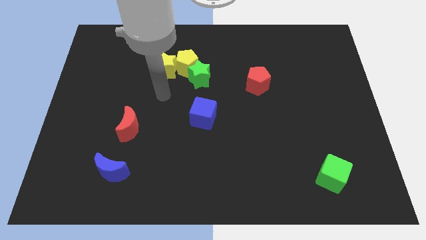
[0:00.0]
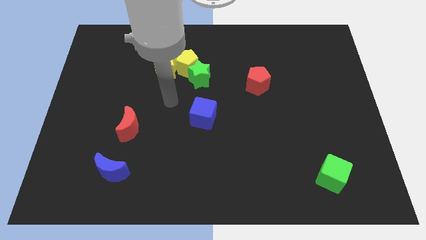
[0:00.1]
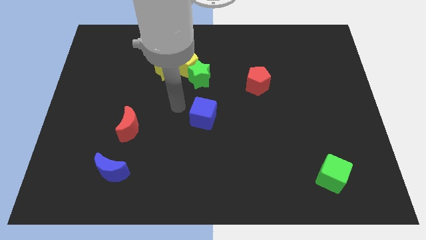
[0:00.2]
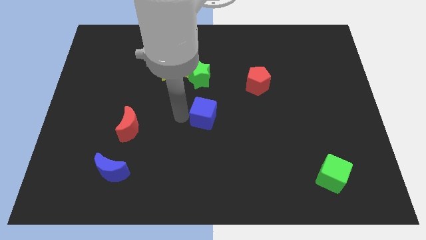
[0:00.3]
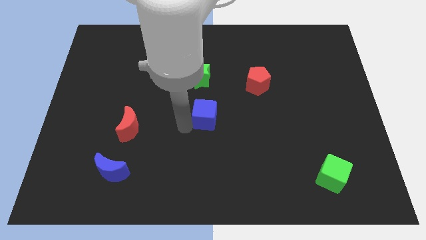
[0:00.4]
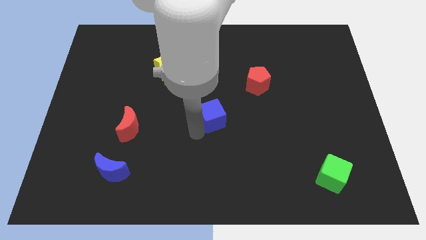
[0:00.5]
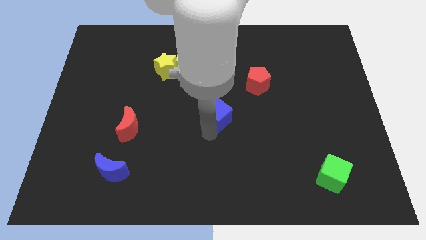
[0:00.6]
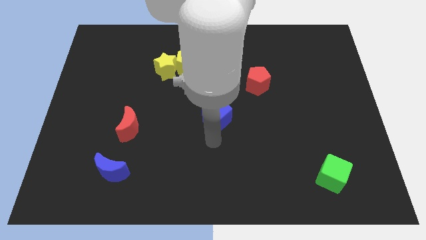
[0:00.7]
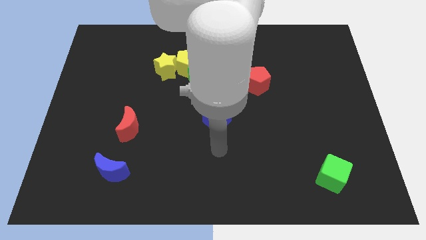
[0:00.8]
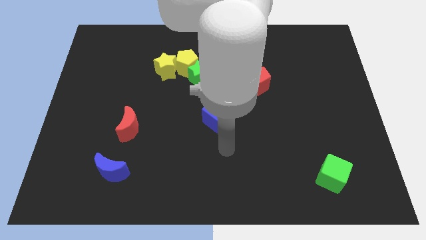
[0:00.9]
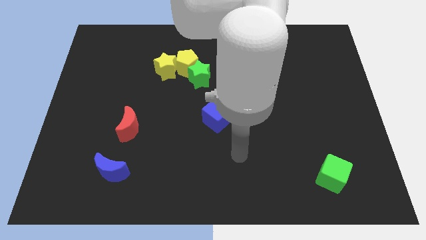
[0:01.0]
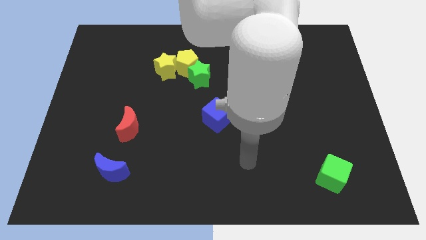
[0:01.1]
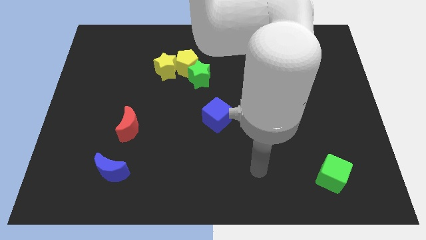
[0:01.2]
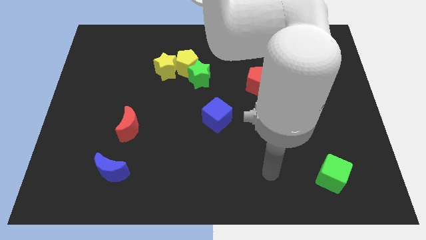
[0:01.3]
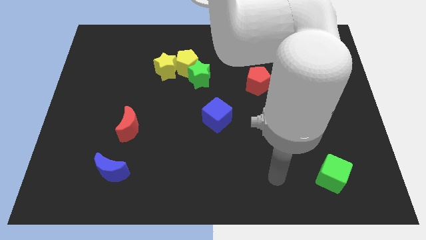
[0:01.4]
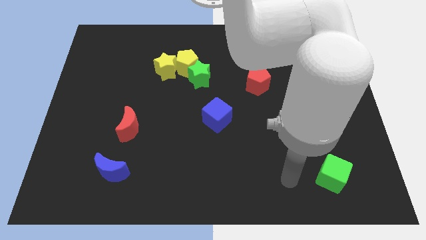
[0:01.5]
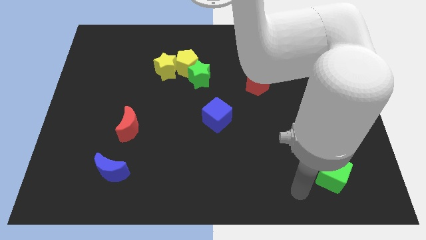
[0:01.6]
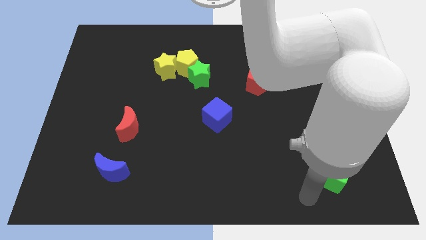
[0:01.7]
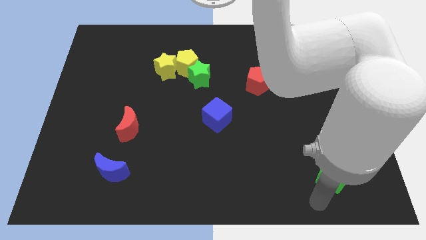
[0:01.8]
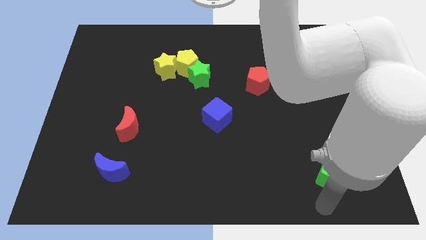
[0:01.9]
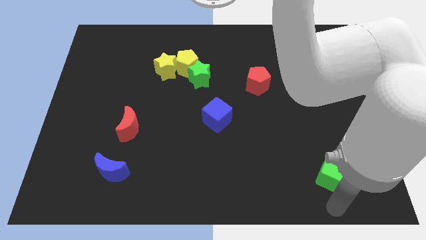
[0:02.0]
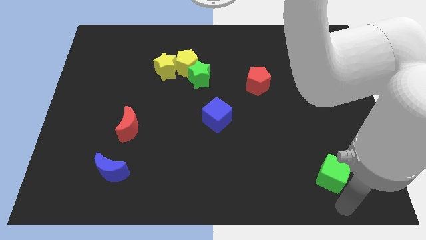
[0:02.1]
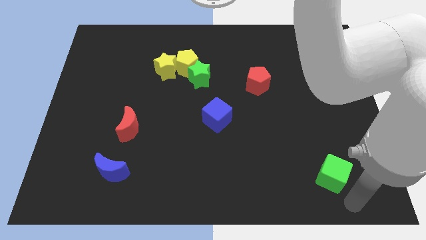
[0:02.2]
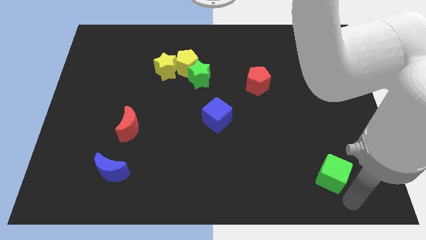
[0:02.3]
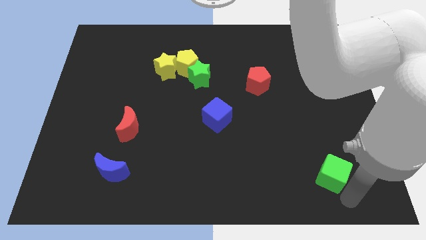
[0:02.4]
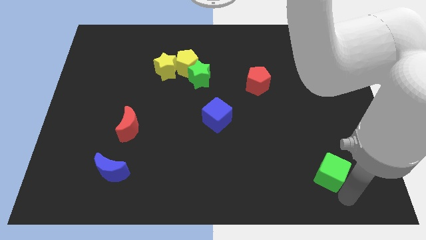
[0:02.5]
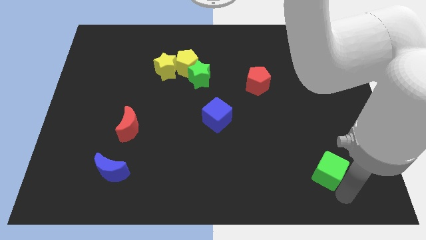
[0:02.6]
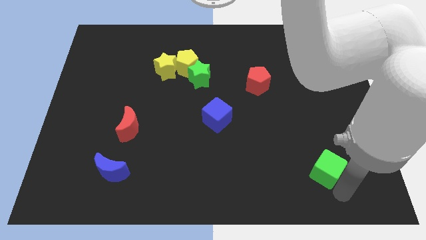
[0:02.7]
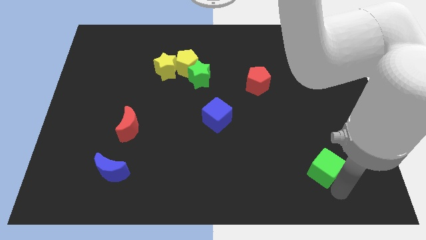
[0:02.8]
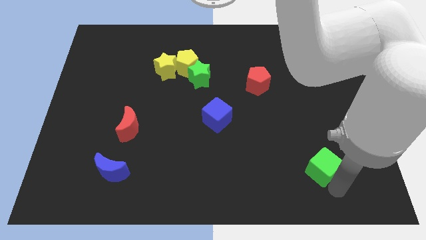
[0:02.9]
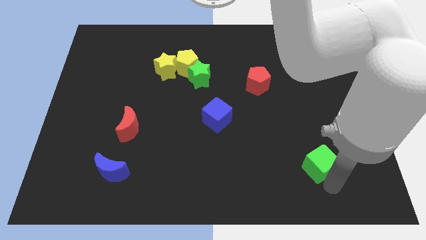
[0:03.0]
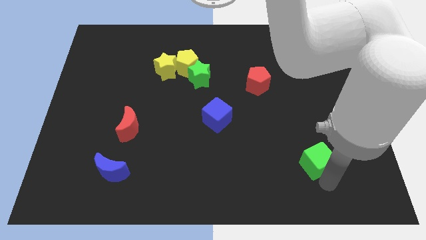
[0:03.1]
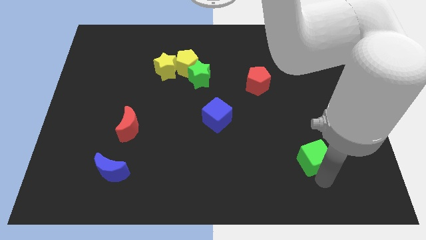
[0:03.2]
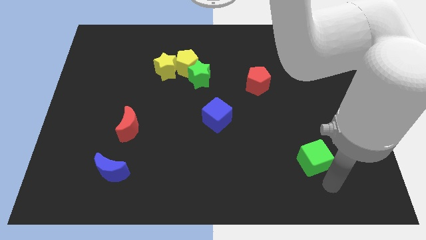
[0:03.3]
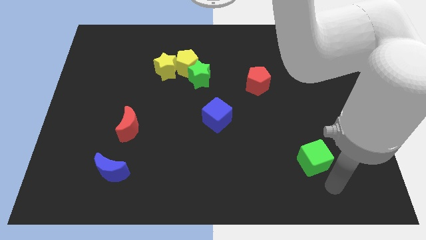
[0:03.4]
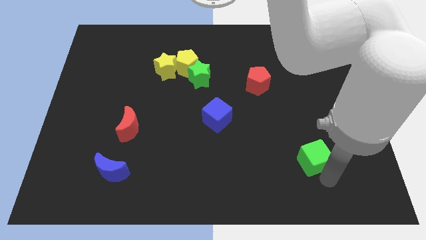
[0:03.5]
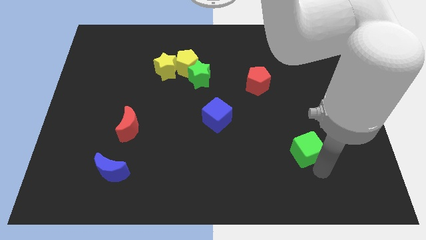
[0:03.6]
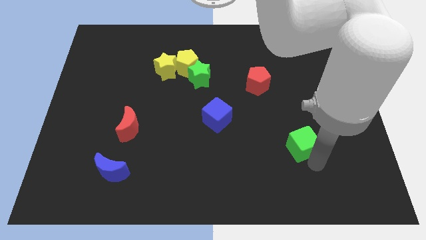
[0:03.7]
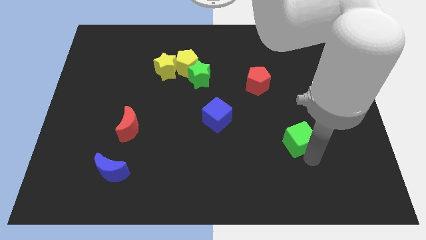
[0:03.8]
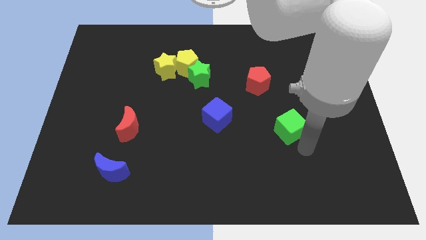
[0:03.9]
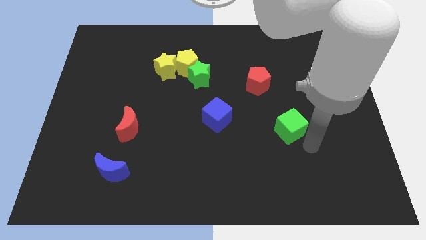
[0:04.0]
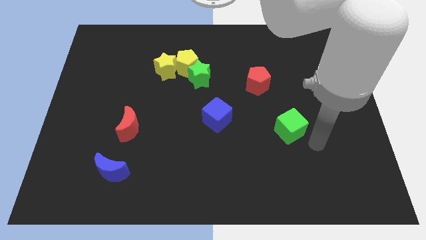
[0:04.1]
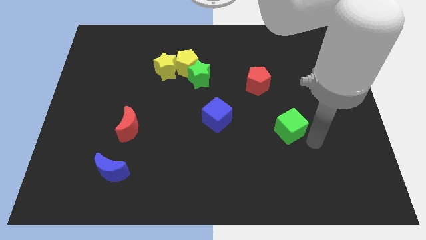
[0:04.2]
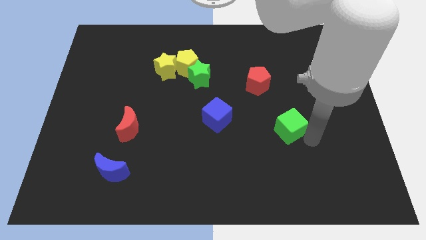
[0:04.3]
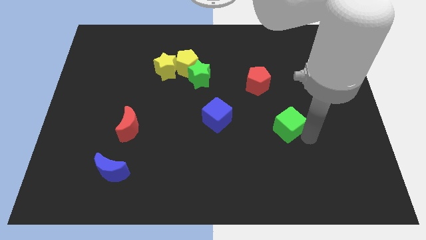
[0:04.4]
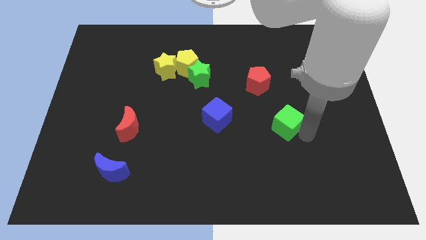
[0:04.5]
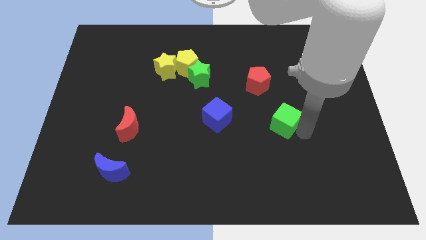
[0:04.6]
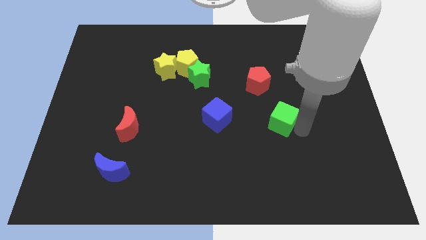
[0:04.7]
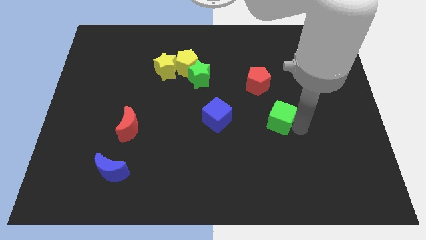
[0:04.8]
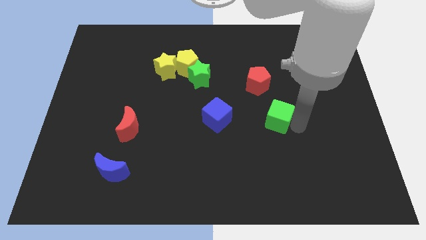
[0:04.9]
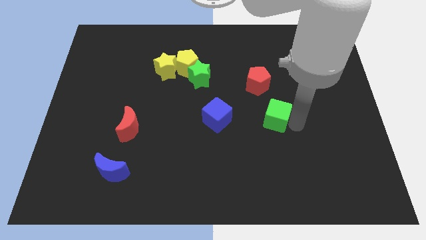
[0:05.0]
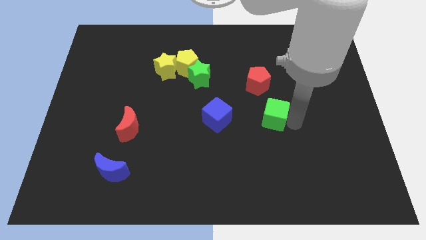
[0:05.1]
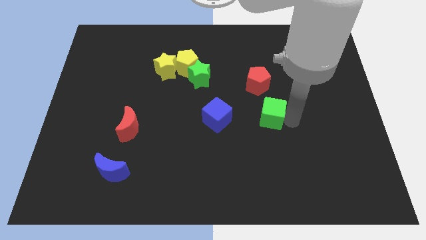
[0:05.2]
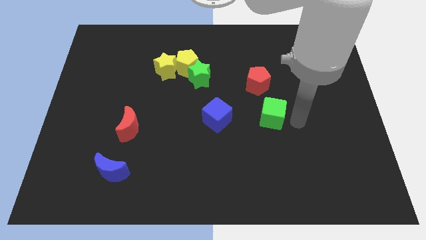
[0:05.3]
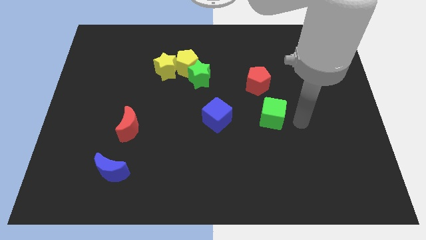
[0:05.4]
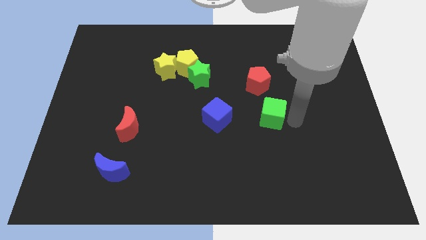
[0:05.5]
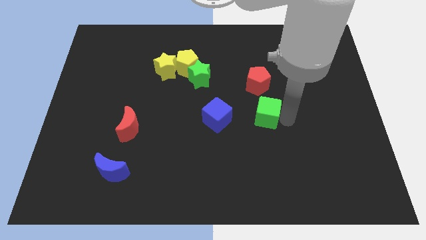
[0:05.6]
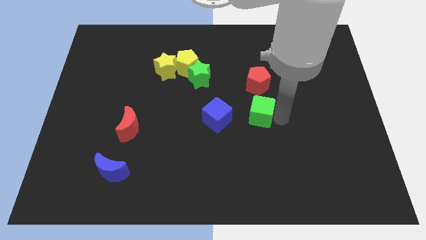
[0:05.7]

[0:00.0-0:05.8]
push the green cube upwards and left diagonally

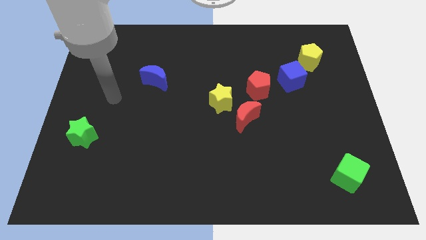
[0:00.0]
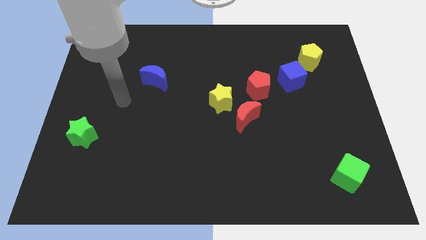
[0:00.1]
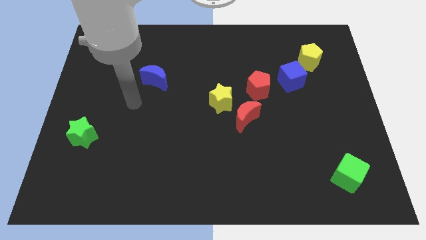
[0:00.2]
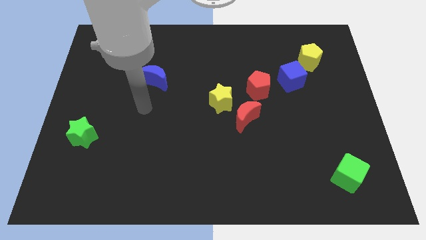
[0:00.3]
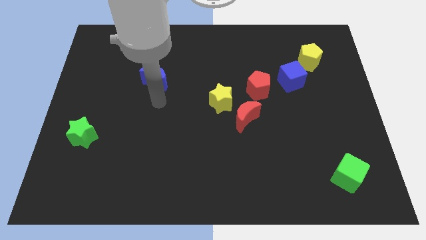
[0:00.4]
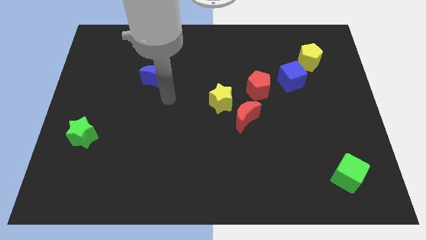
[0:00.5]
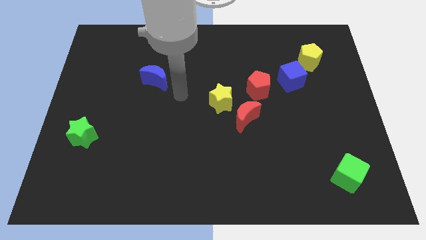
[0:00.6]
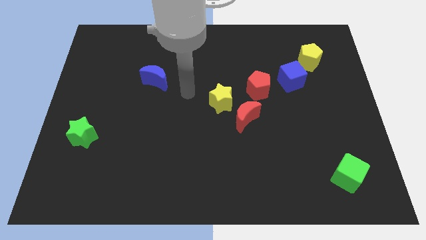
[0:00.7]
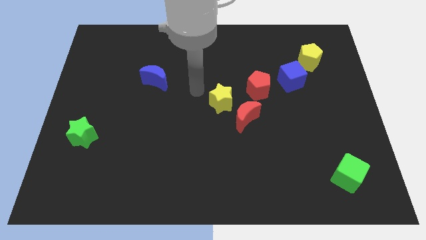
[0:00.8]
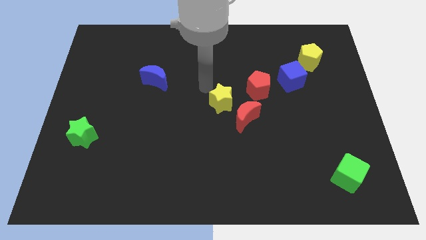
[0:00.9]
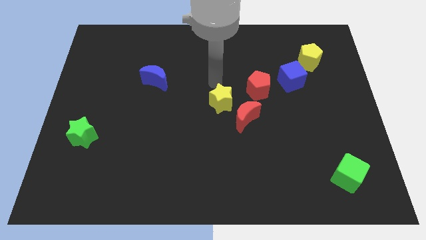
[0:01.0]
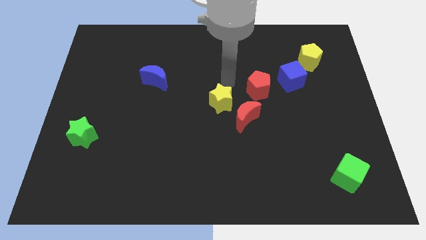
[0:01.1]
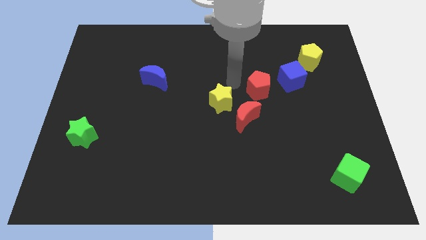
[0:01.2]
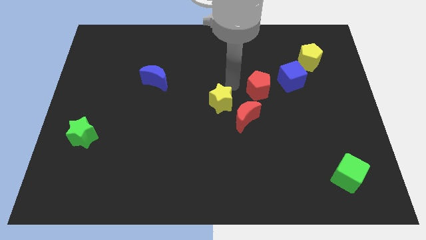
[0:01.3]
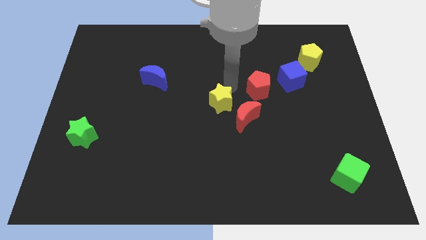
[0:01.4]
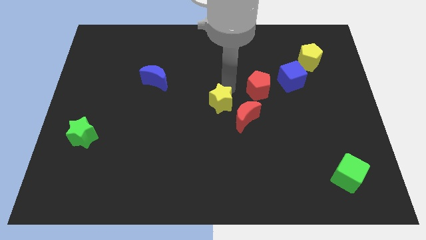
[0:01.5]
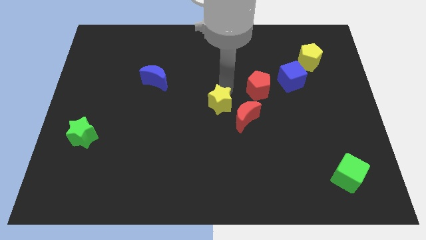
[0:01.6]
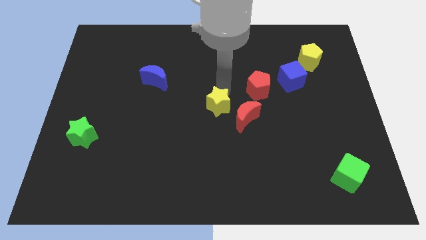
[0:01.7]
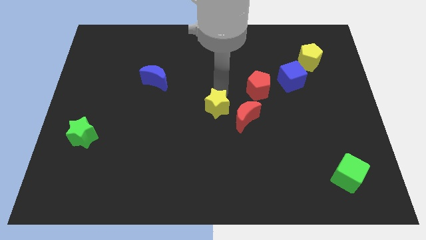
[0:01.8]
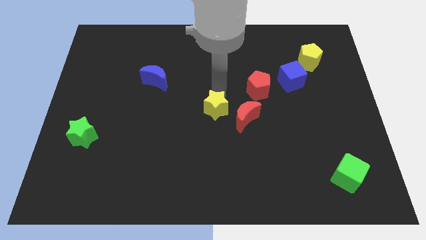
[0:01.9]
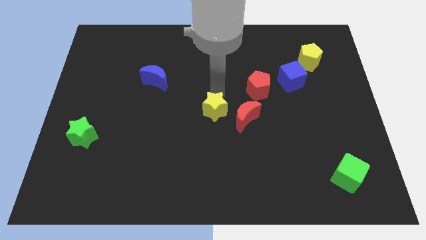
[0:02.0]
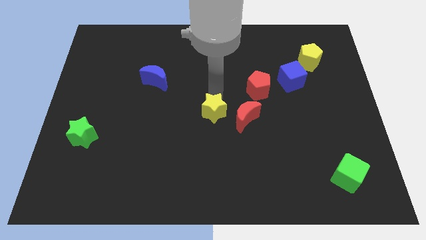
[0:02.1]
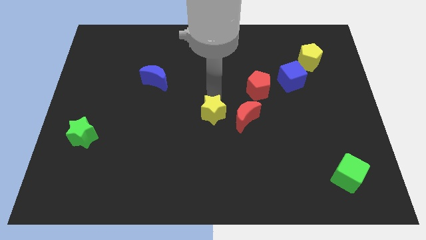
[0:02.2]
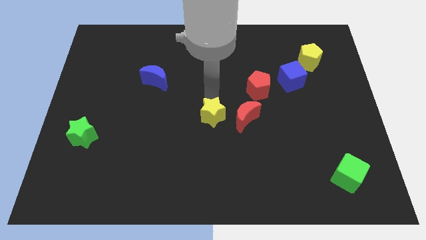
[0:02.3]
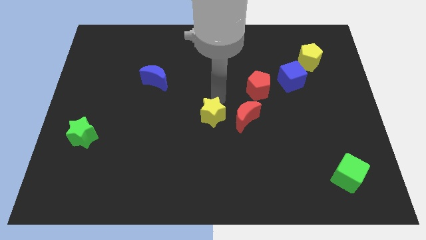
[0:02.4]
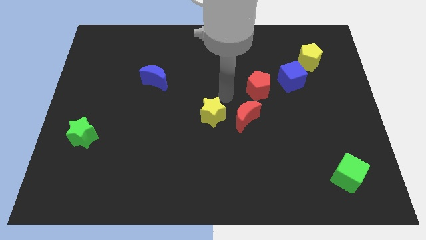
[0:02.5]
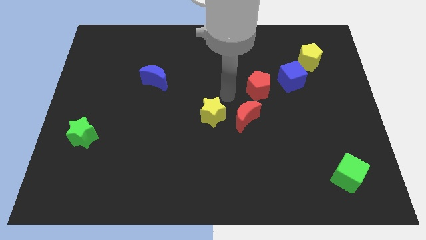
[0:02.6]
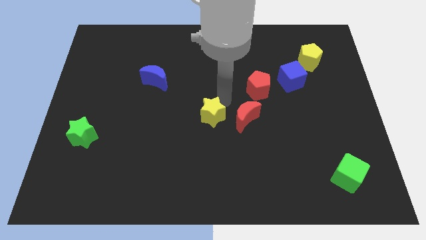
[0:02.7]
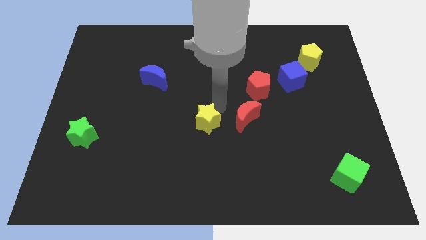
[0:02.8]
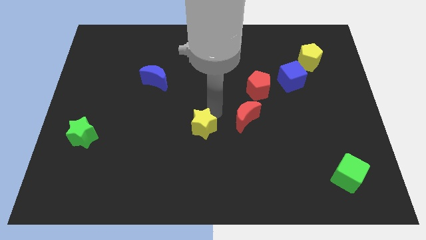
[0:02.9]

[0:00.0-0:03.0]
slightly slide the yellow star downwards and left diagonally
